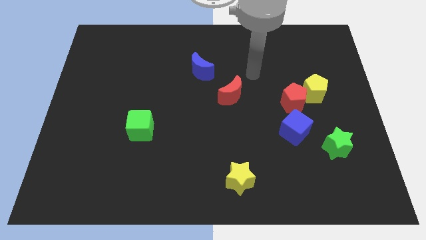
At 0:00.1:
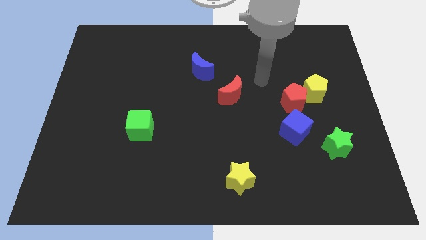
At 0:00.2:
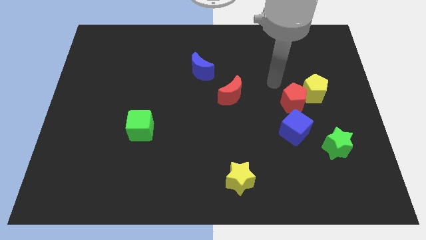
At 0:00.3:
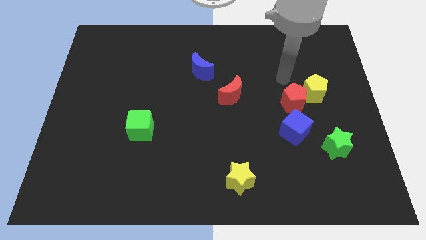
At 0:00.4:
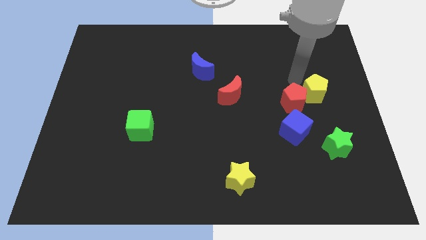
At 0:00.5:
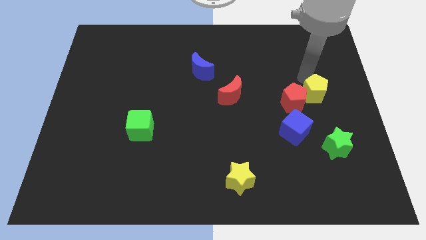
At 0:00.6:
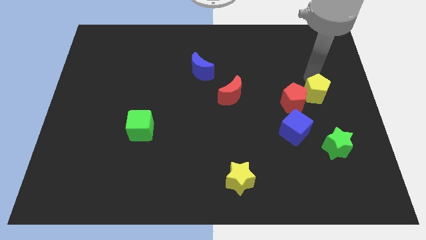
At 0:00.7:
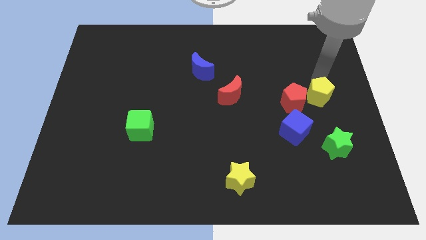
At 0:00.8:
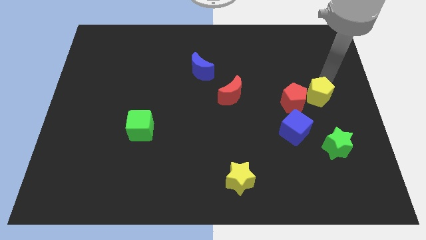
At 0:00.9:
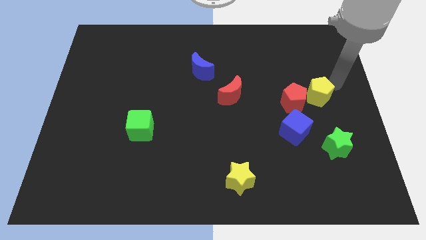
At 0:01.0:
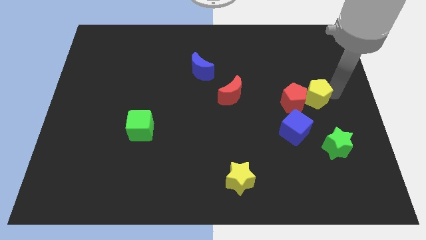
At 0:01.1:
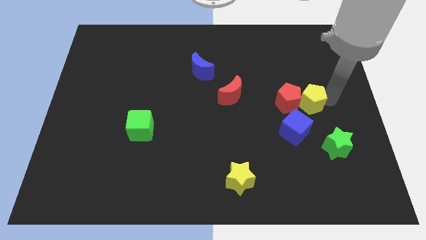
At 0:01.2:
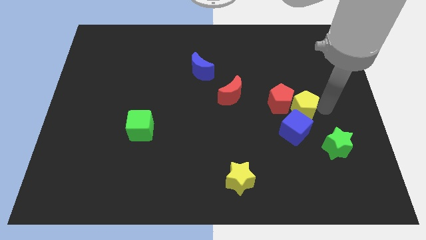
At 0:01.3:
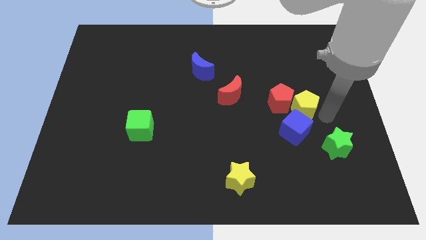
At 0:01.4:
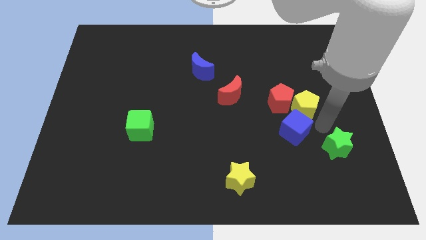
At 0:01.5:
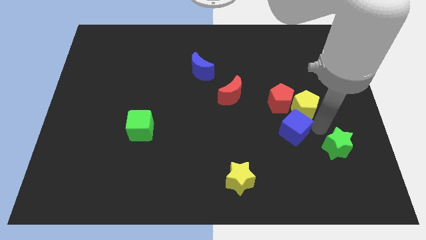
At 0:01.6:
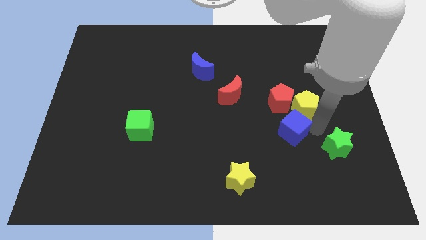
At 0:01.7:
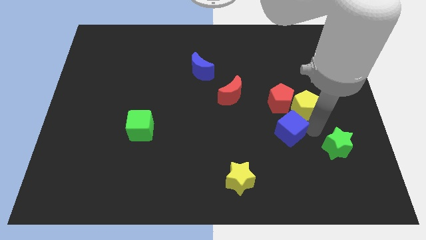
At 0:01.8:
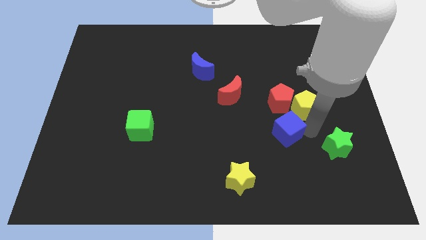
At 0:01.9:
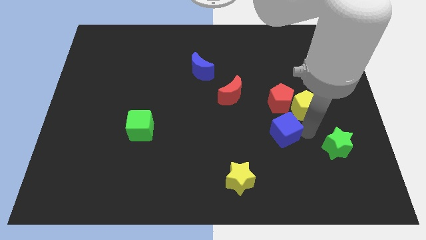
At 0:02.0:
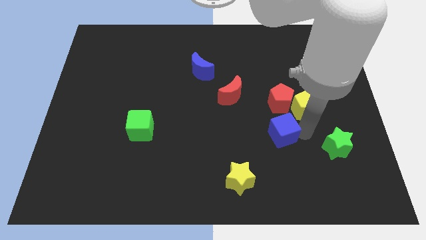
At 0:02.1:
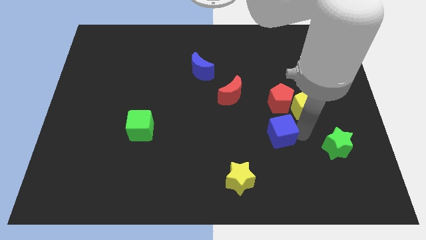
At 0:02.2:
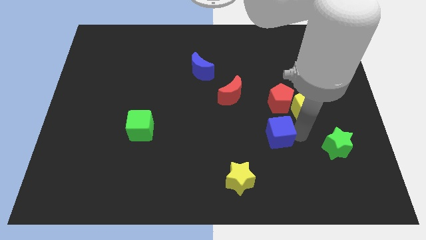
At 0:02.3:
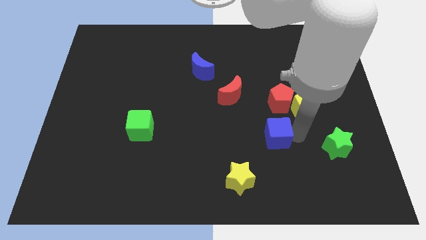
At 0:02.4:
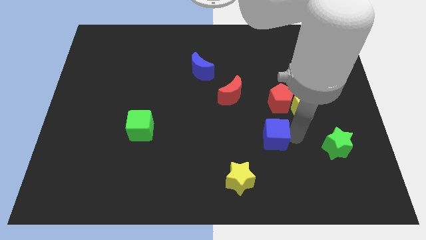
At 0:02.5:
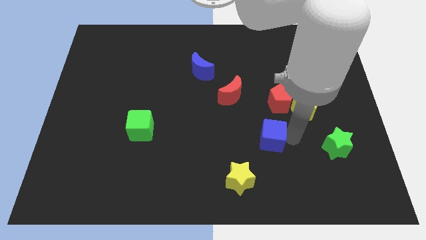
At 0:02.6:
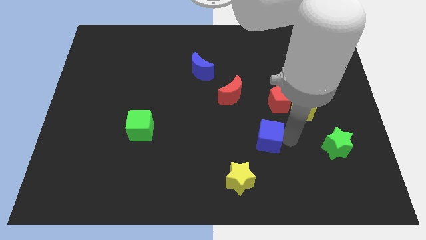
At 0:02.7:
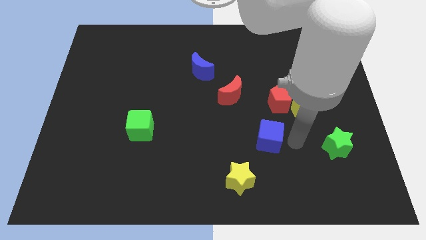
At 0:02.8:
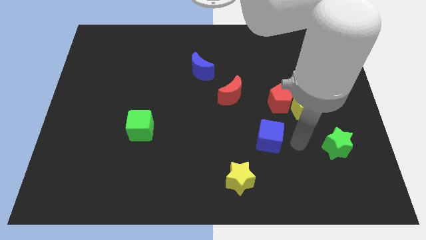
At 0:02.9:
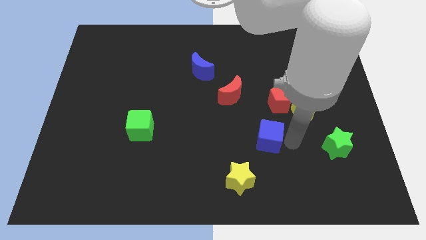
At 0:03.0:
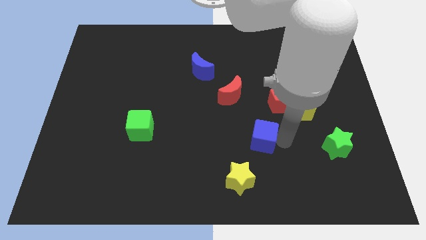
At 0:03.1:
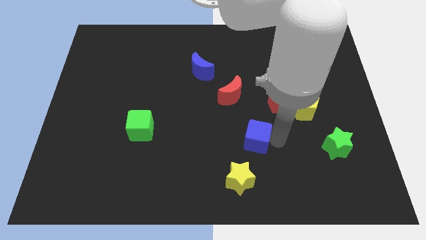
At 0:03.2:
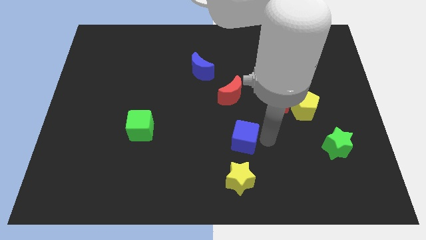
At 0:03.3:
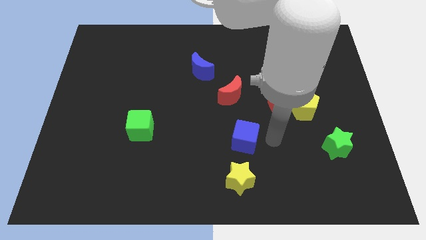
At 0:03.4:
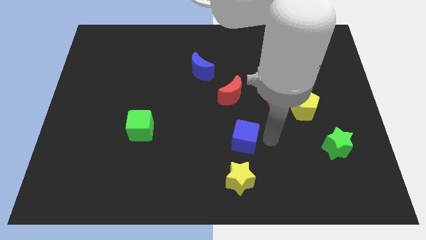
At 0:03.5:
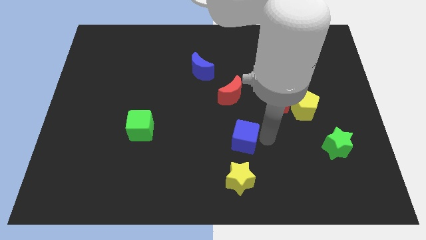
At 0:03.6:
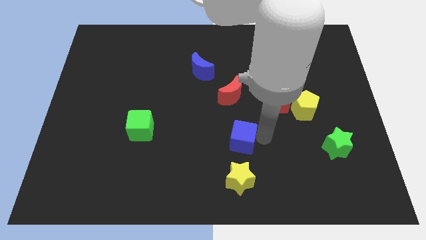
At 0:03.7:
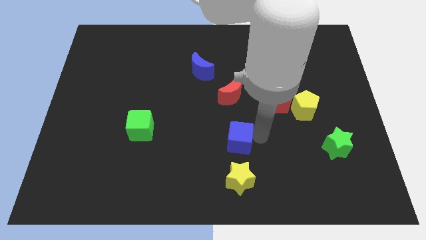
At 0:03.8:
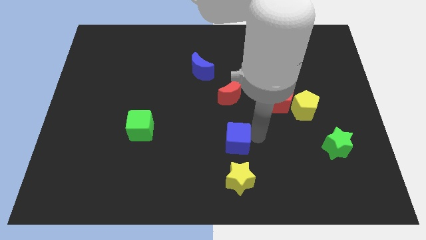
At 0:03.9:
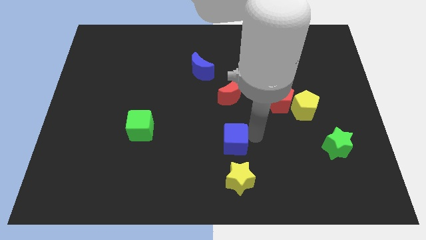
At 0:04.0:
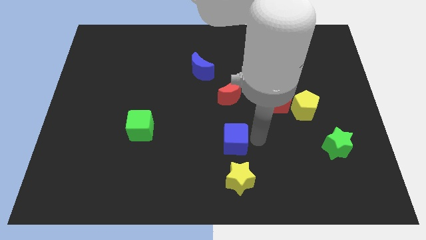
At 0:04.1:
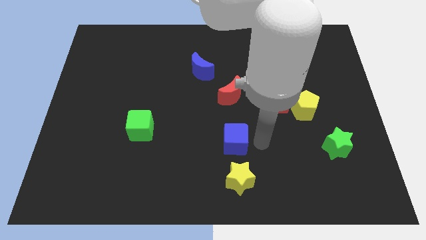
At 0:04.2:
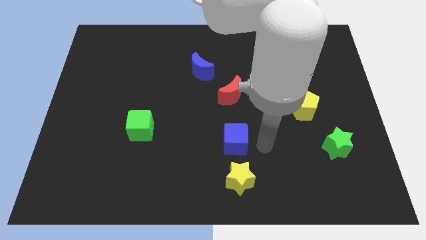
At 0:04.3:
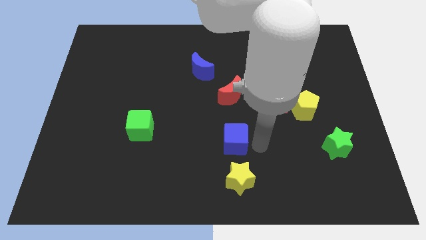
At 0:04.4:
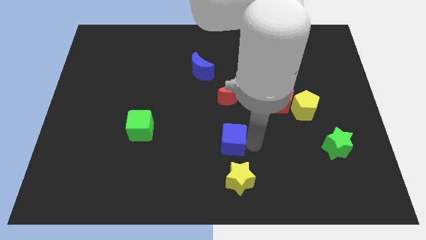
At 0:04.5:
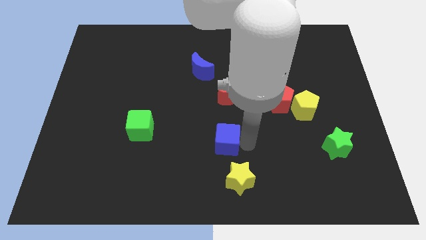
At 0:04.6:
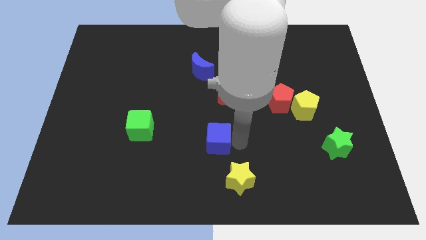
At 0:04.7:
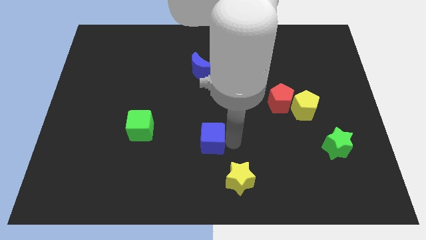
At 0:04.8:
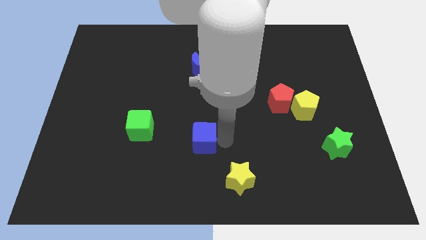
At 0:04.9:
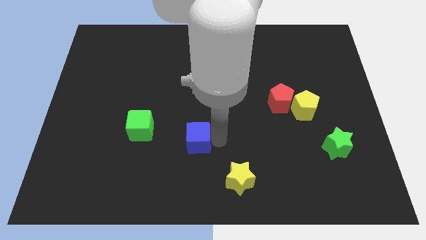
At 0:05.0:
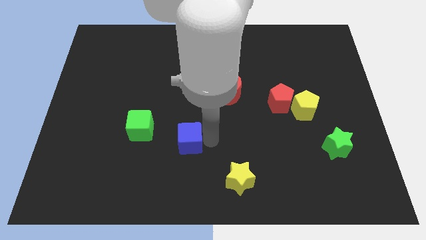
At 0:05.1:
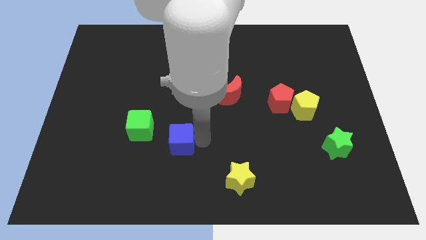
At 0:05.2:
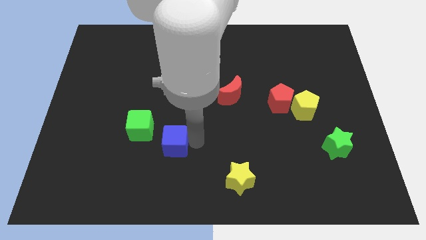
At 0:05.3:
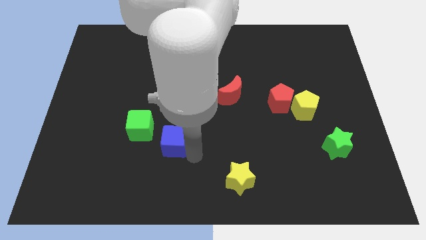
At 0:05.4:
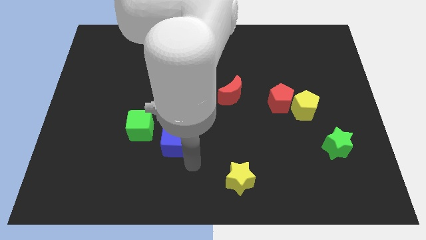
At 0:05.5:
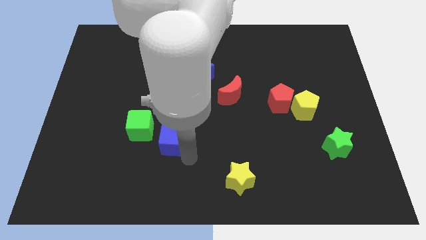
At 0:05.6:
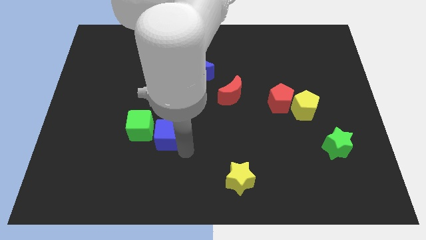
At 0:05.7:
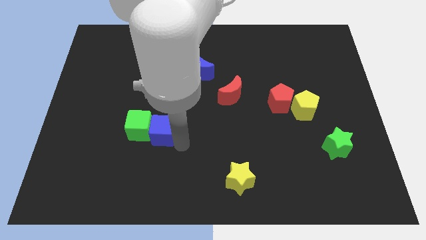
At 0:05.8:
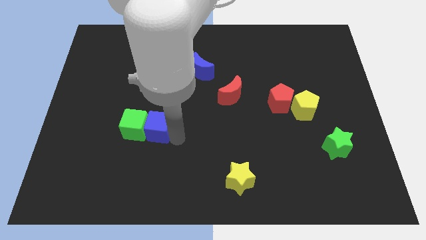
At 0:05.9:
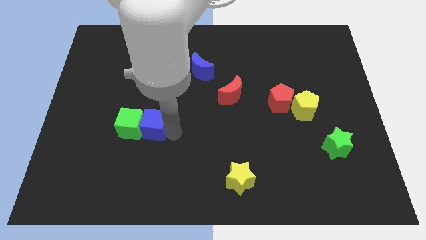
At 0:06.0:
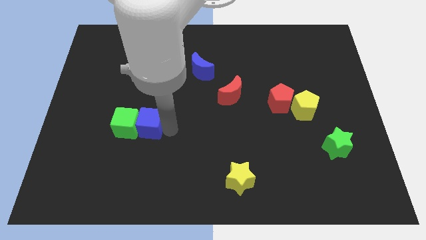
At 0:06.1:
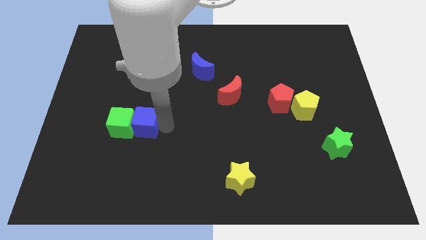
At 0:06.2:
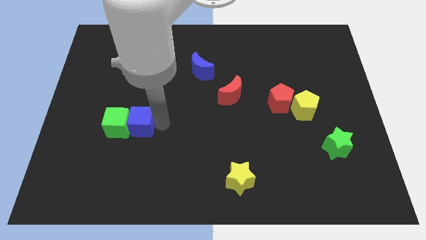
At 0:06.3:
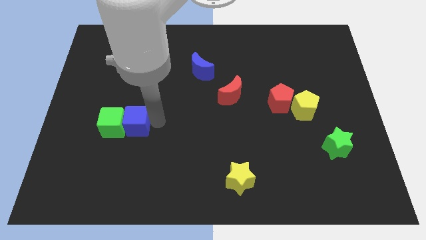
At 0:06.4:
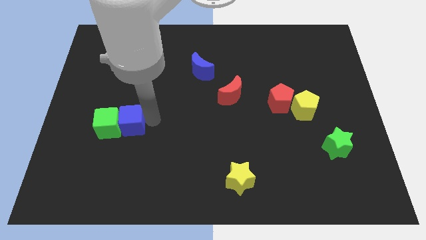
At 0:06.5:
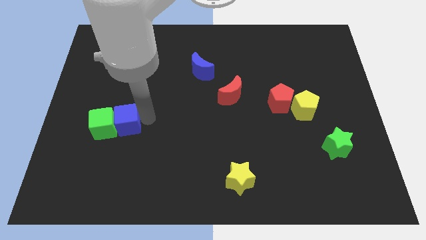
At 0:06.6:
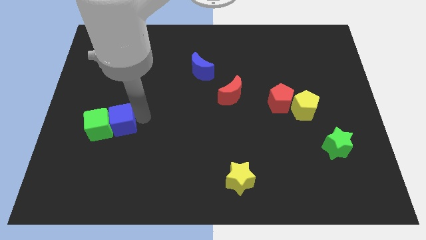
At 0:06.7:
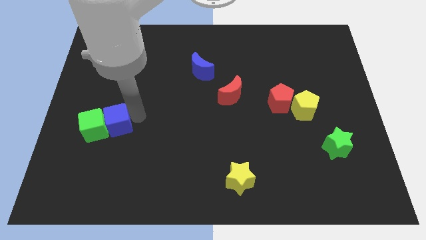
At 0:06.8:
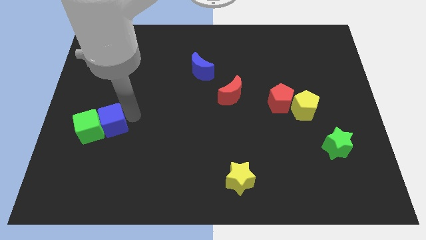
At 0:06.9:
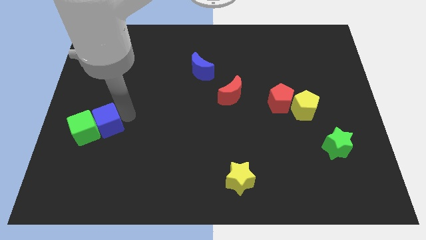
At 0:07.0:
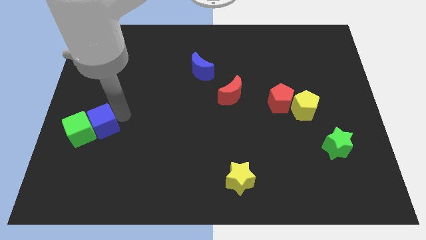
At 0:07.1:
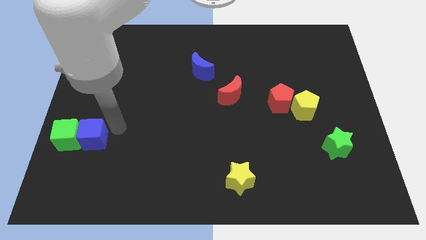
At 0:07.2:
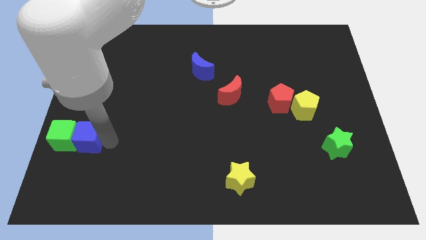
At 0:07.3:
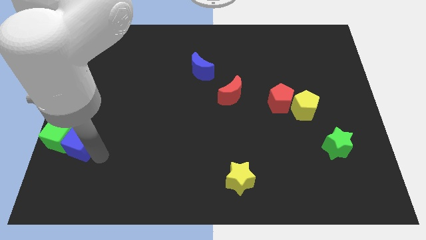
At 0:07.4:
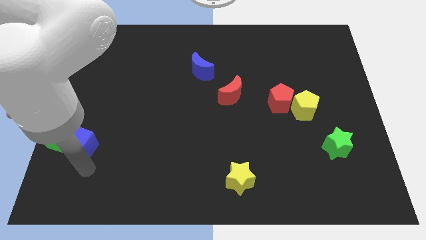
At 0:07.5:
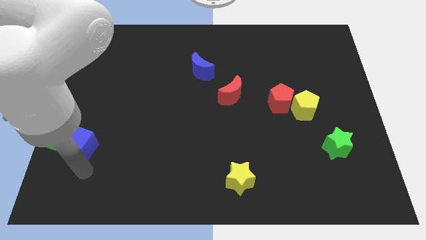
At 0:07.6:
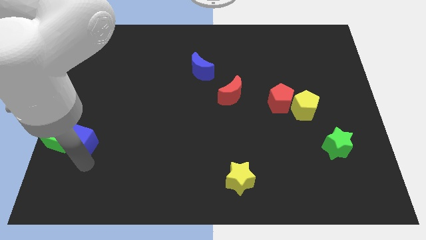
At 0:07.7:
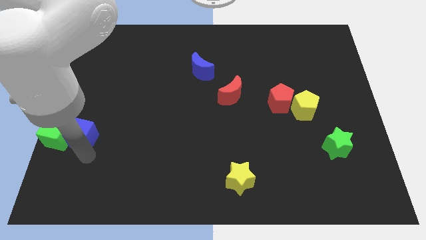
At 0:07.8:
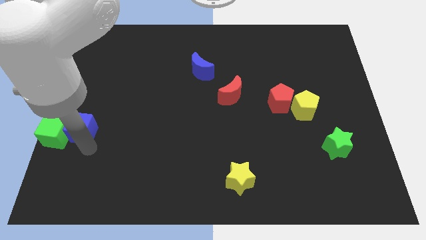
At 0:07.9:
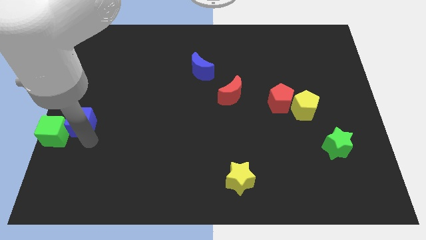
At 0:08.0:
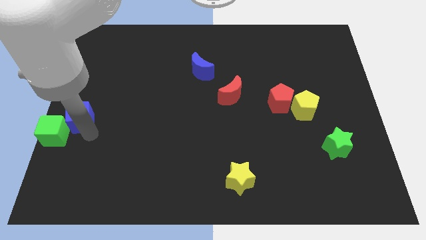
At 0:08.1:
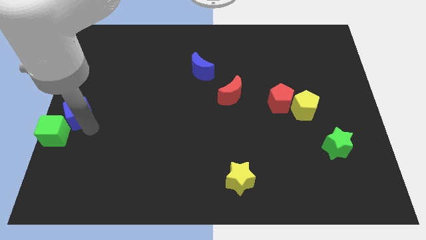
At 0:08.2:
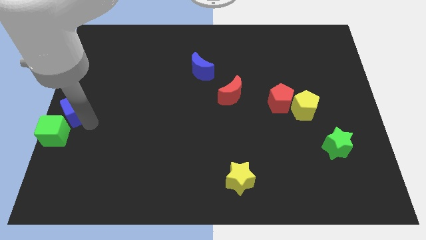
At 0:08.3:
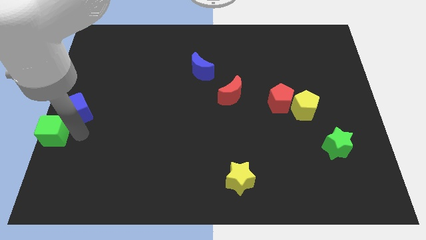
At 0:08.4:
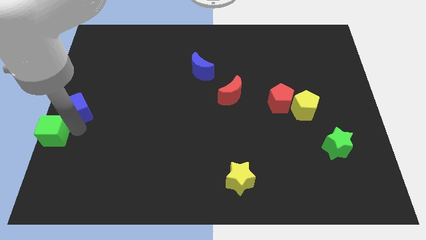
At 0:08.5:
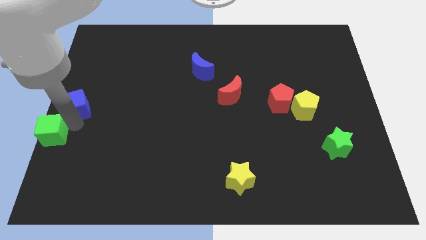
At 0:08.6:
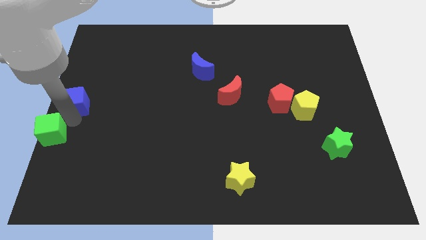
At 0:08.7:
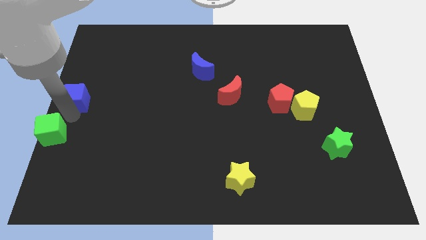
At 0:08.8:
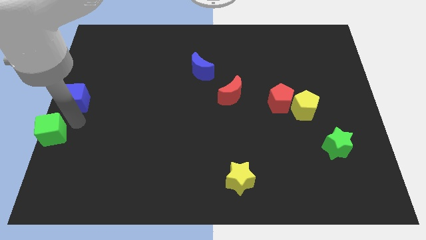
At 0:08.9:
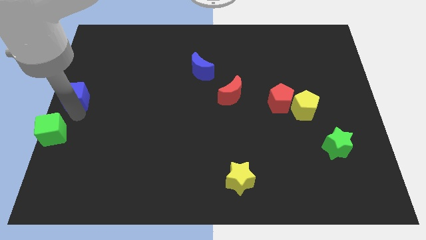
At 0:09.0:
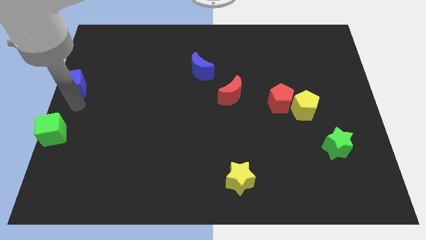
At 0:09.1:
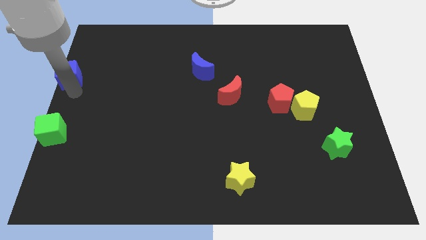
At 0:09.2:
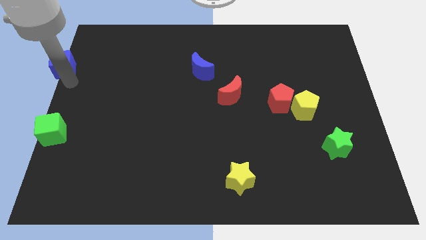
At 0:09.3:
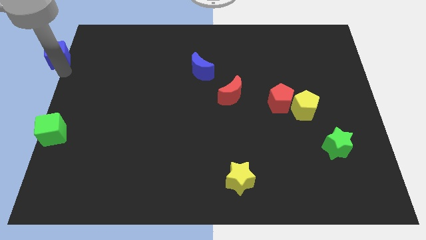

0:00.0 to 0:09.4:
slide the blue cube to the top left
